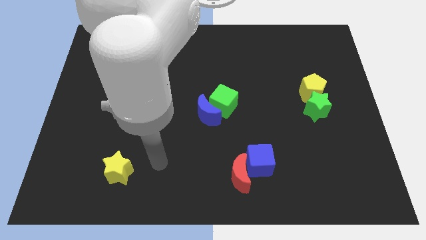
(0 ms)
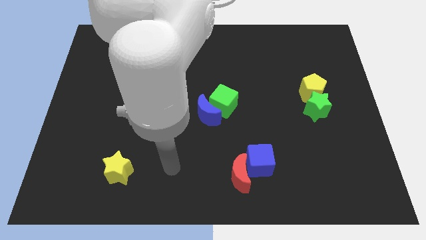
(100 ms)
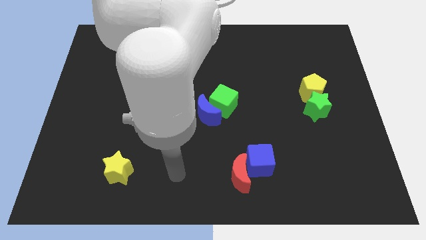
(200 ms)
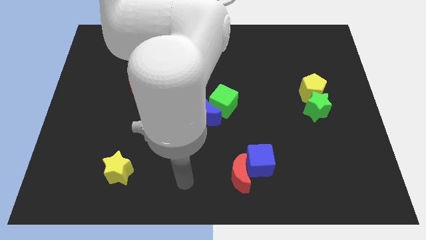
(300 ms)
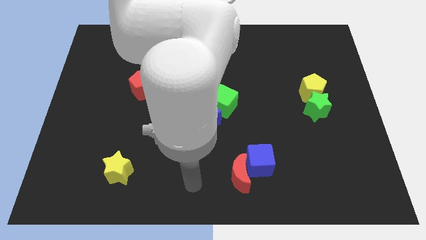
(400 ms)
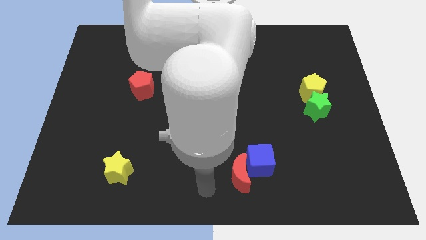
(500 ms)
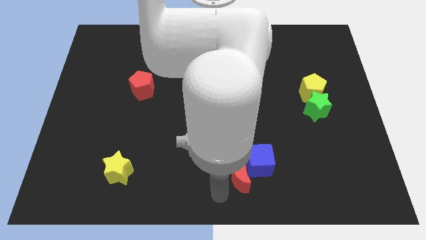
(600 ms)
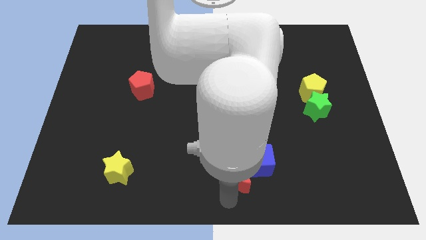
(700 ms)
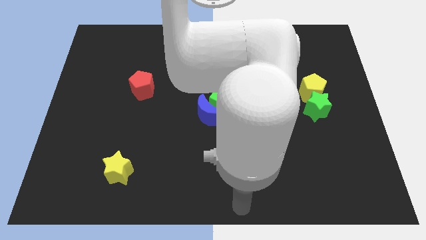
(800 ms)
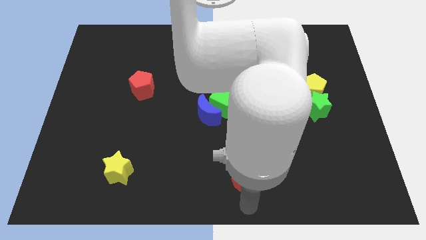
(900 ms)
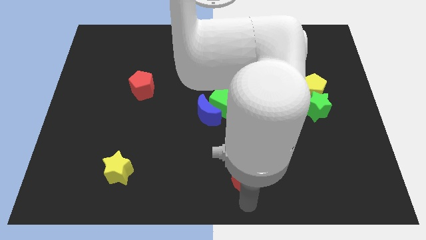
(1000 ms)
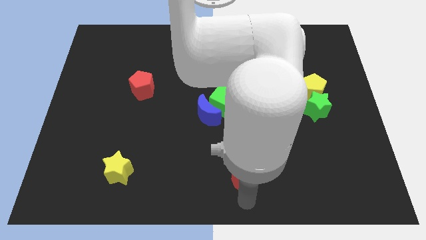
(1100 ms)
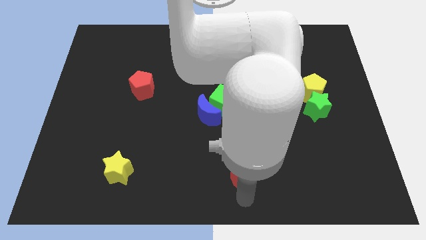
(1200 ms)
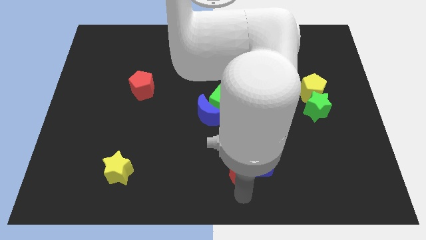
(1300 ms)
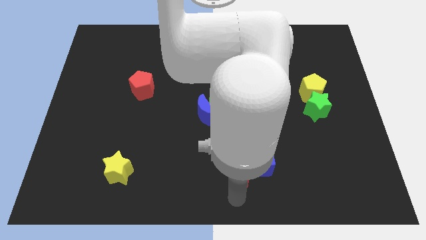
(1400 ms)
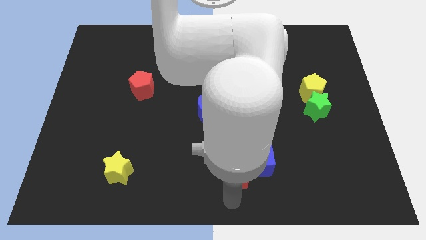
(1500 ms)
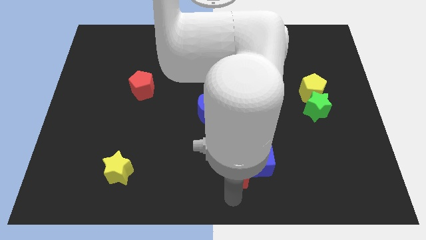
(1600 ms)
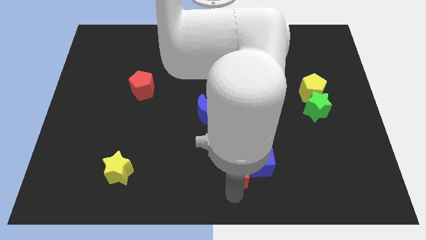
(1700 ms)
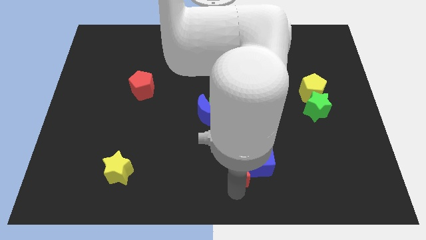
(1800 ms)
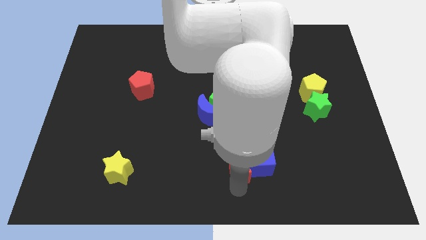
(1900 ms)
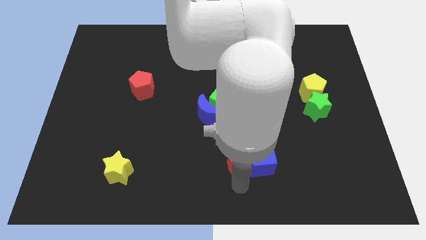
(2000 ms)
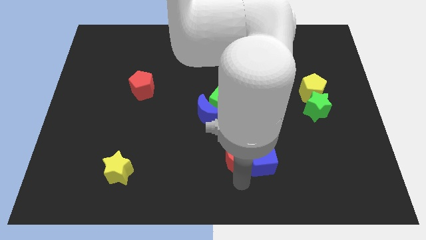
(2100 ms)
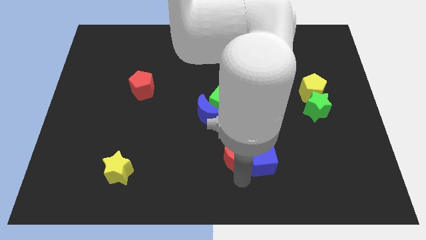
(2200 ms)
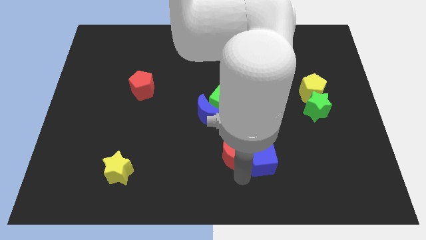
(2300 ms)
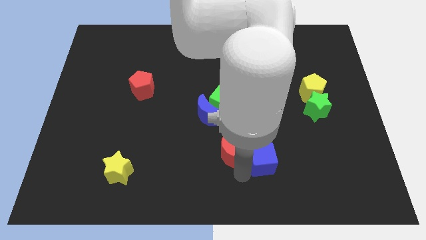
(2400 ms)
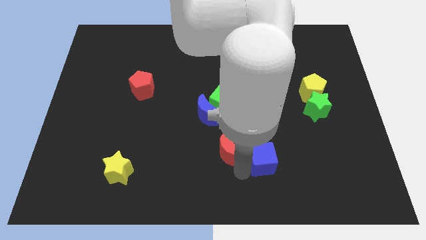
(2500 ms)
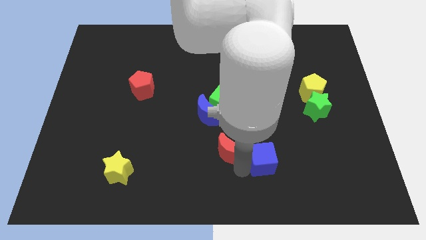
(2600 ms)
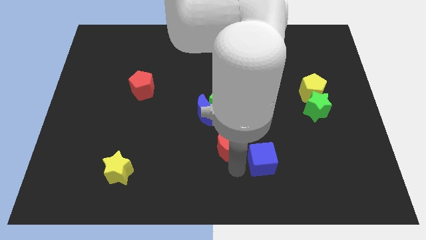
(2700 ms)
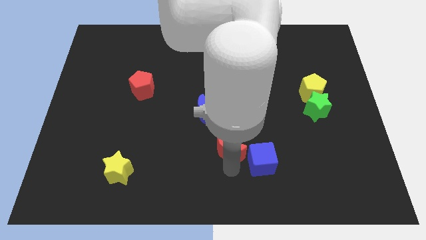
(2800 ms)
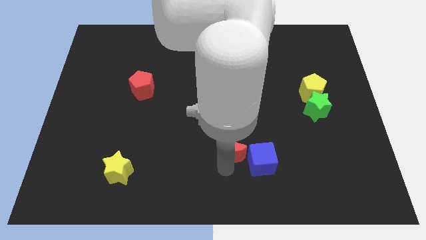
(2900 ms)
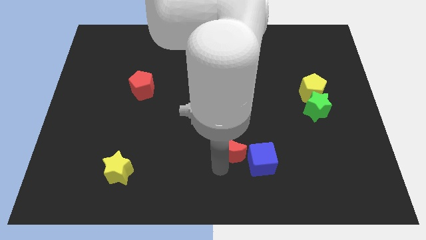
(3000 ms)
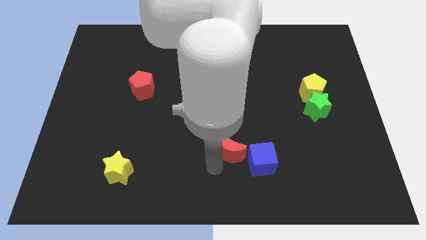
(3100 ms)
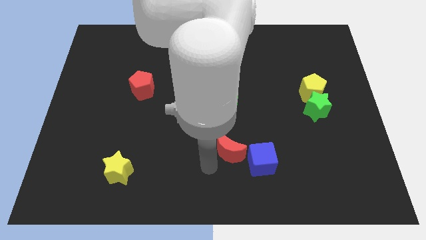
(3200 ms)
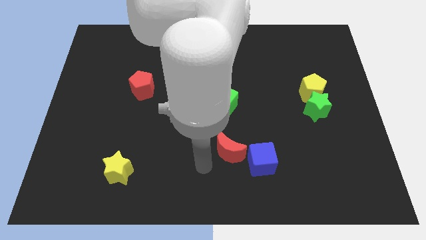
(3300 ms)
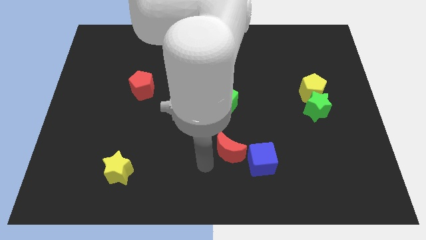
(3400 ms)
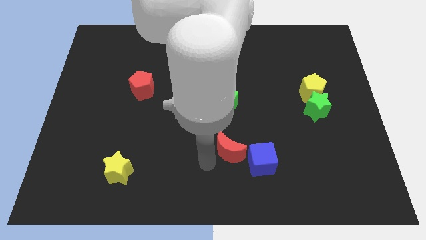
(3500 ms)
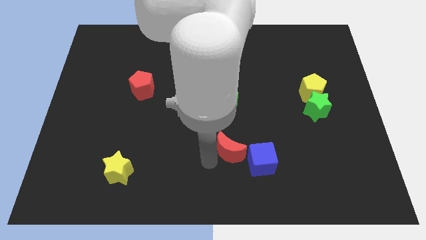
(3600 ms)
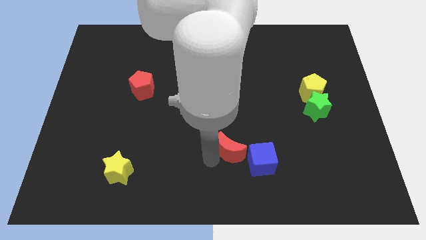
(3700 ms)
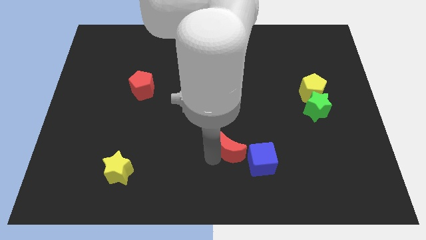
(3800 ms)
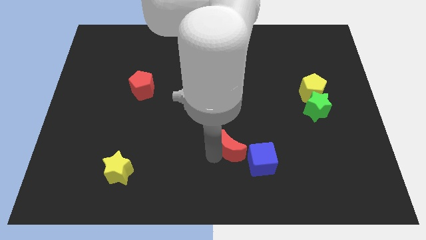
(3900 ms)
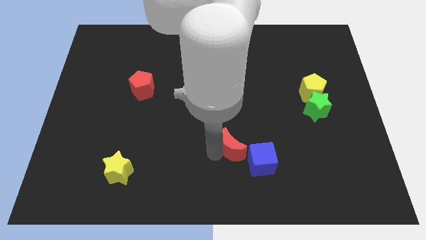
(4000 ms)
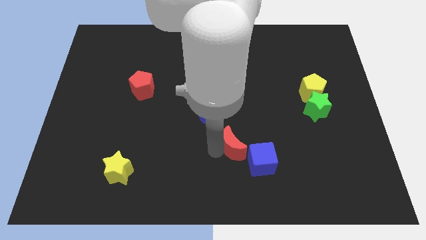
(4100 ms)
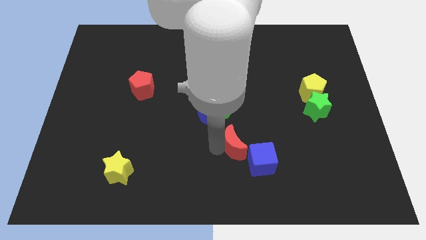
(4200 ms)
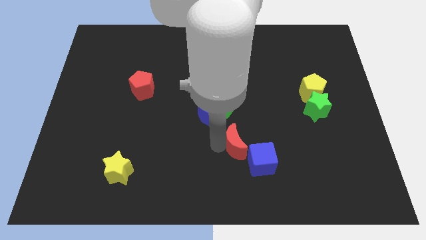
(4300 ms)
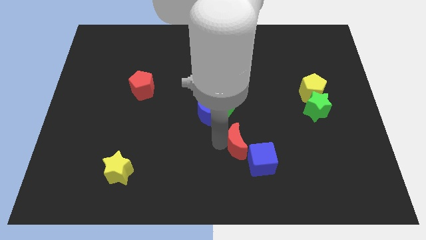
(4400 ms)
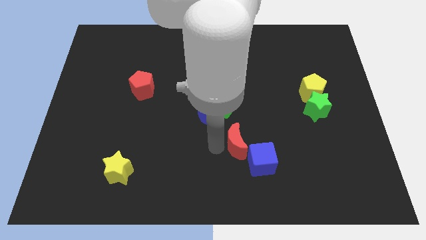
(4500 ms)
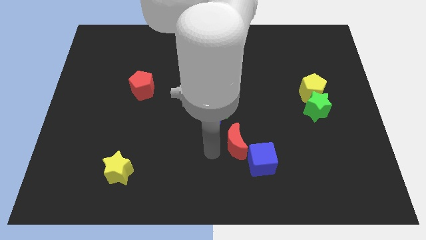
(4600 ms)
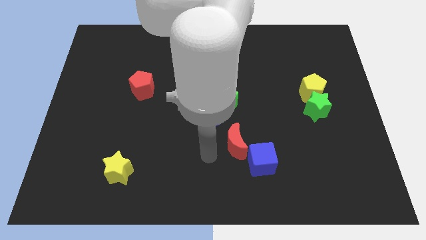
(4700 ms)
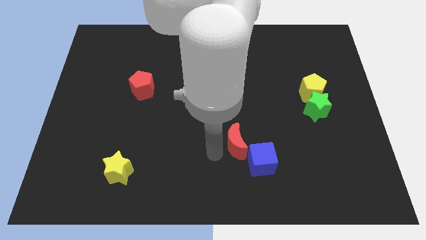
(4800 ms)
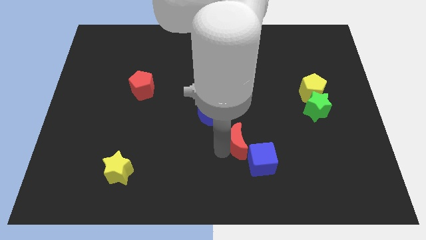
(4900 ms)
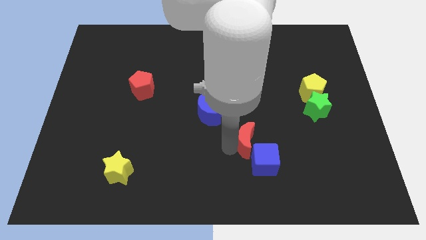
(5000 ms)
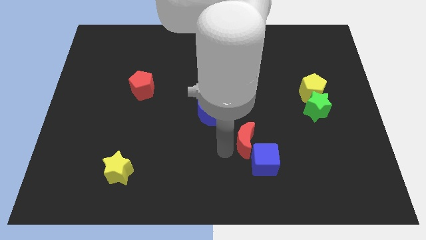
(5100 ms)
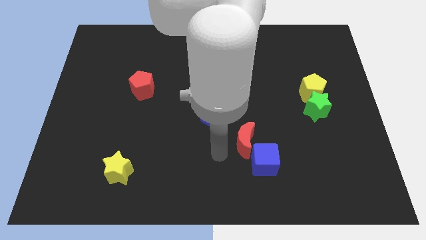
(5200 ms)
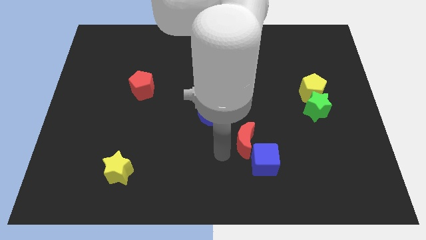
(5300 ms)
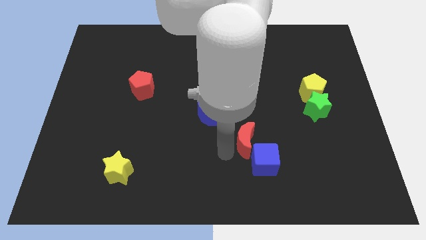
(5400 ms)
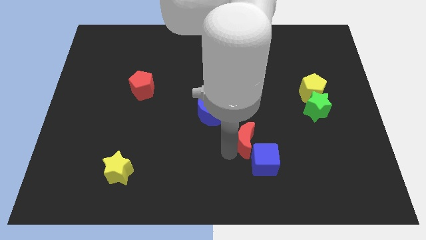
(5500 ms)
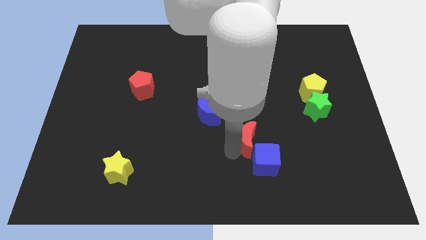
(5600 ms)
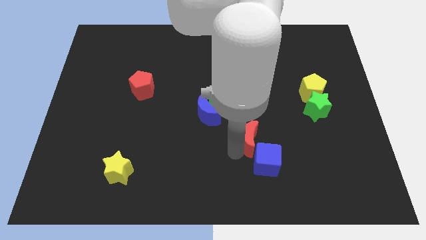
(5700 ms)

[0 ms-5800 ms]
push the red moon slightly up and then to the right

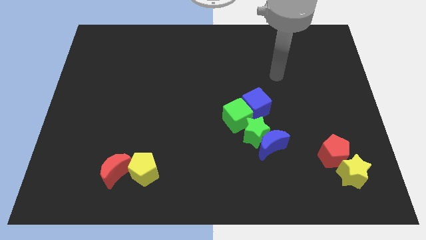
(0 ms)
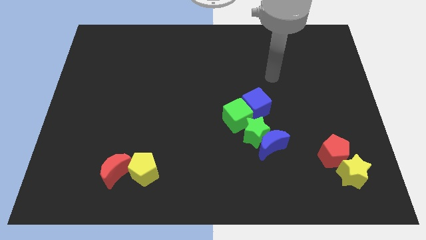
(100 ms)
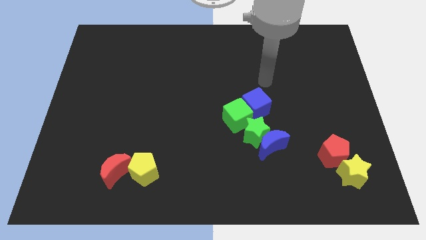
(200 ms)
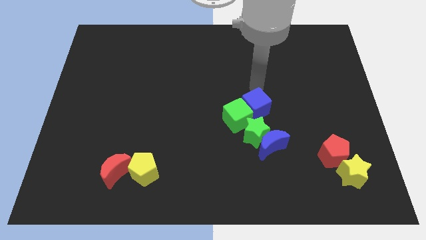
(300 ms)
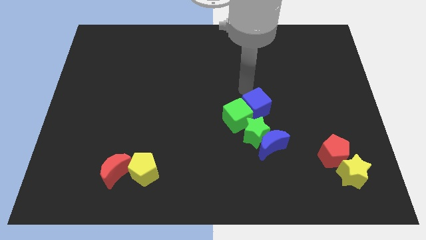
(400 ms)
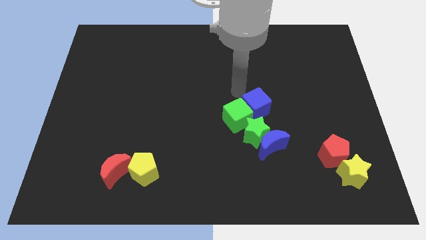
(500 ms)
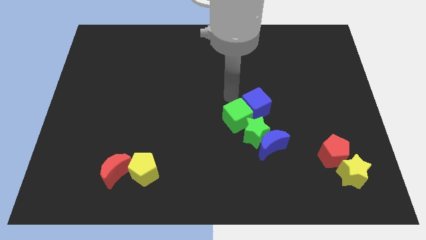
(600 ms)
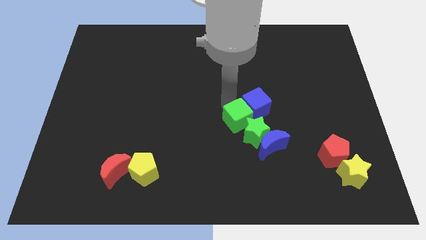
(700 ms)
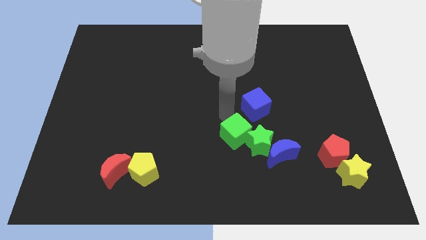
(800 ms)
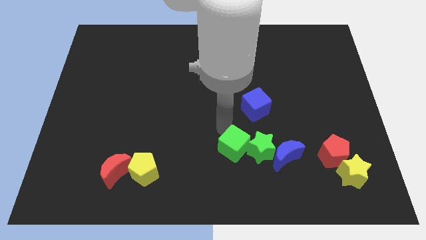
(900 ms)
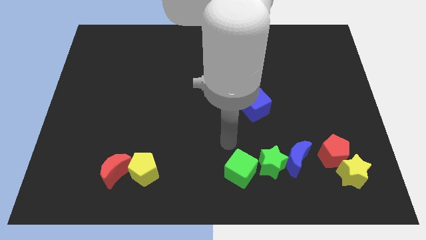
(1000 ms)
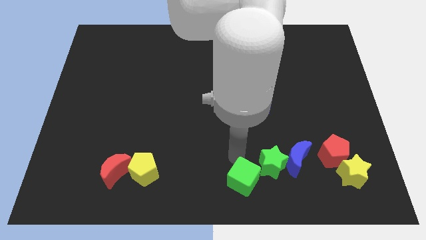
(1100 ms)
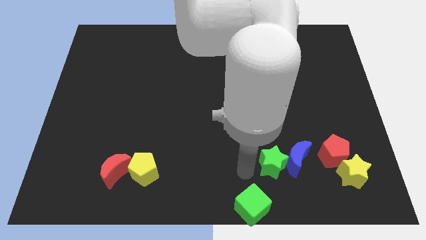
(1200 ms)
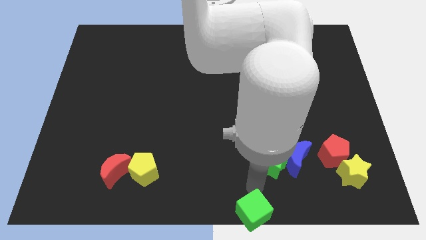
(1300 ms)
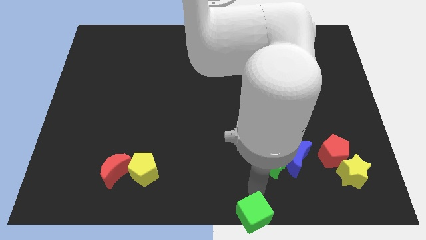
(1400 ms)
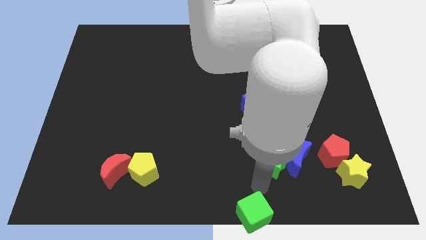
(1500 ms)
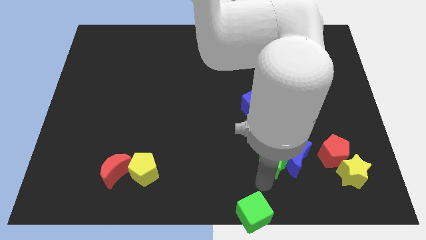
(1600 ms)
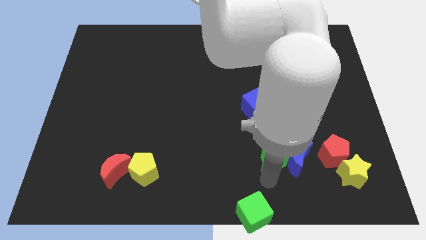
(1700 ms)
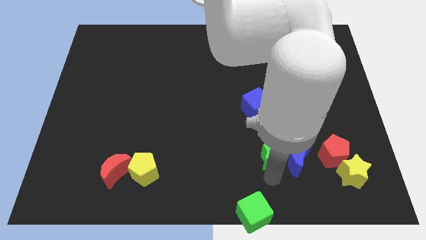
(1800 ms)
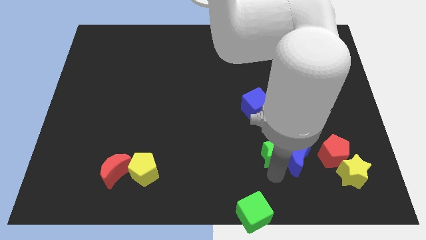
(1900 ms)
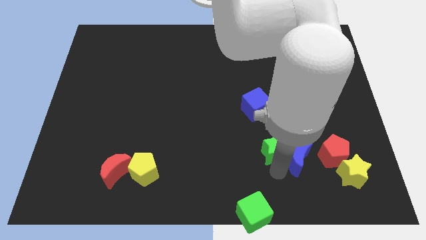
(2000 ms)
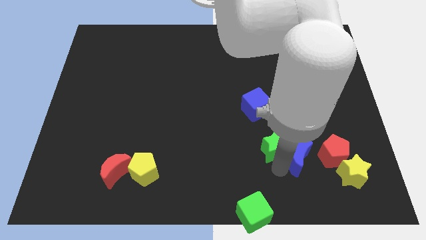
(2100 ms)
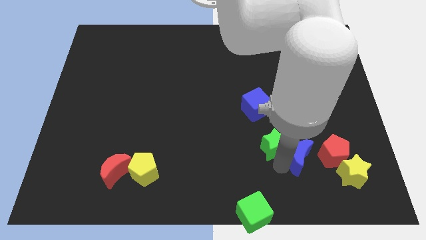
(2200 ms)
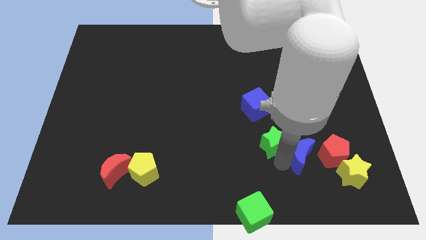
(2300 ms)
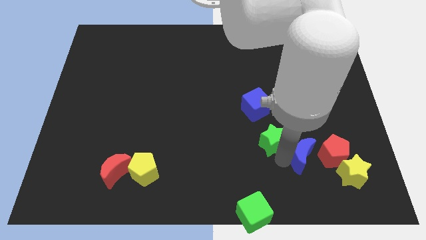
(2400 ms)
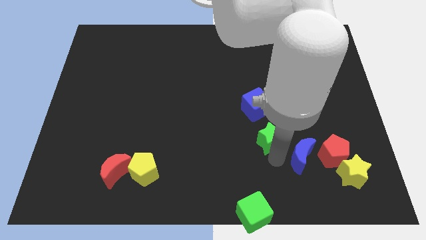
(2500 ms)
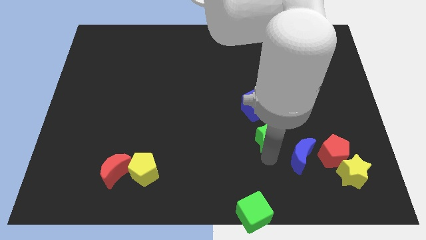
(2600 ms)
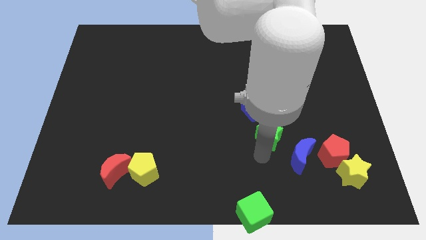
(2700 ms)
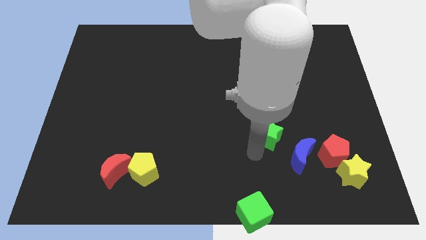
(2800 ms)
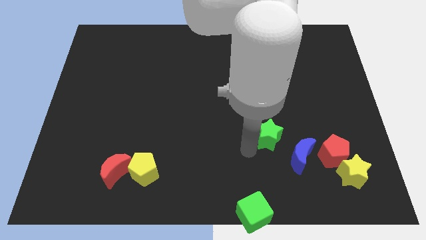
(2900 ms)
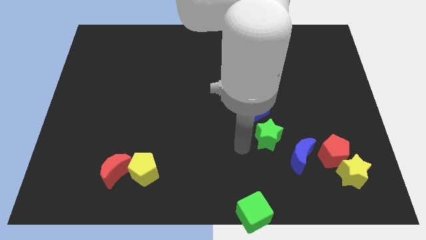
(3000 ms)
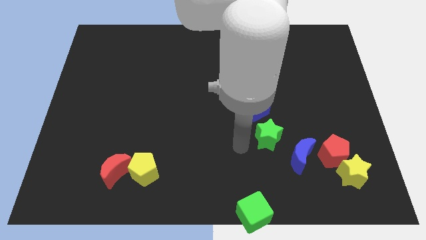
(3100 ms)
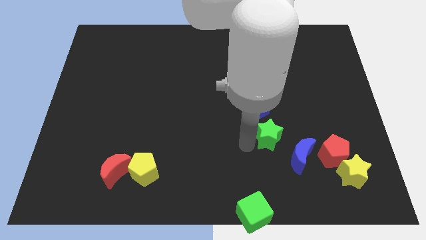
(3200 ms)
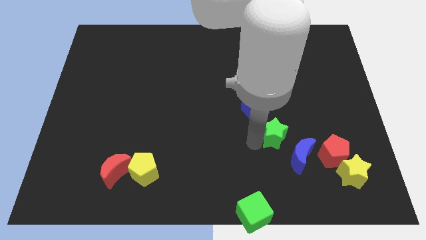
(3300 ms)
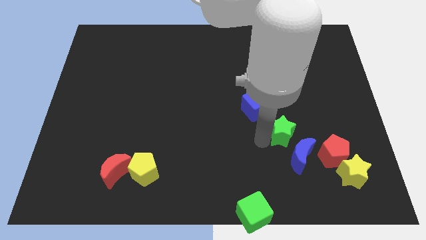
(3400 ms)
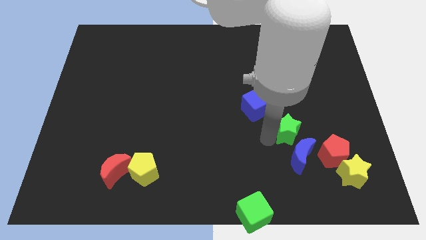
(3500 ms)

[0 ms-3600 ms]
slightly push the green star to the right
